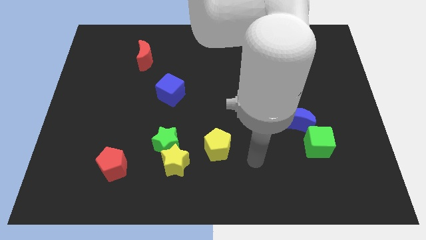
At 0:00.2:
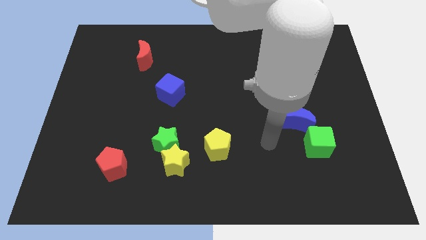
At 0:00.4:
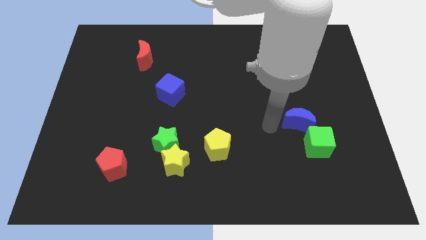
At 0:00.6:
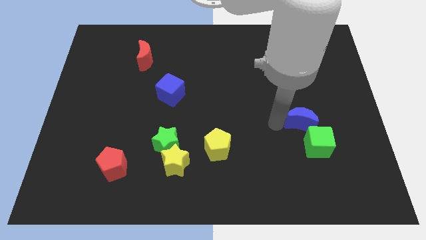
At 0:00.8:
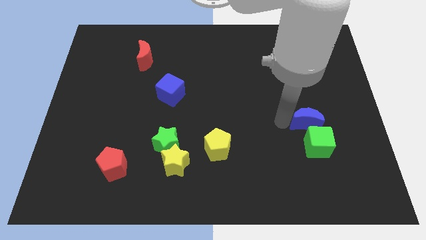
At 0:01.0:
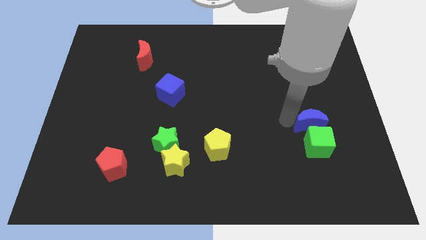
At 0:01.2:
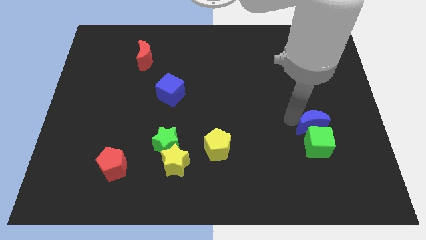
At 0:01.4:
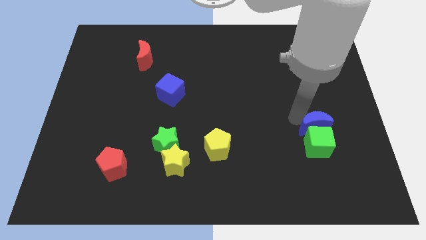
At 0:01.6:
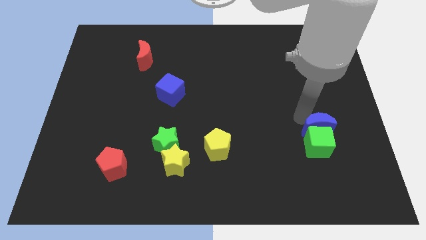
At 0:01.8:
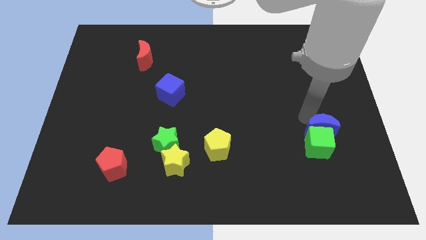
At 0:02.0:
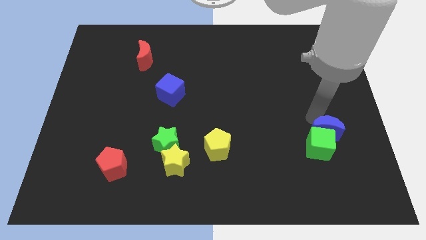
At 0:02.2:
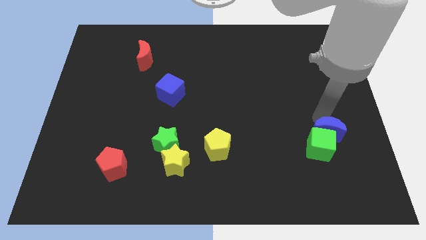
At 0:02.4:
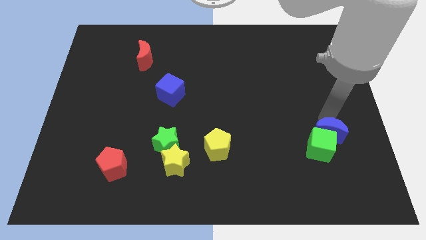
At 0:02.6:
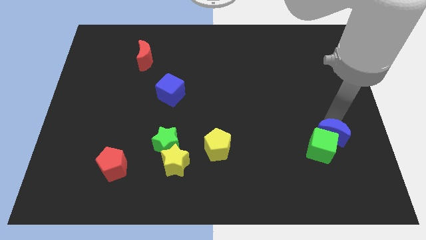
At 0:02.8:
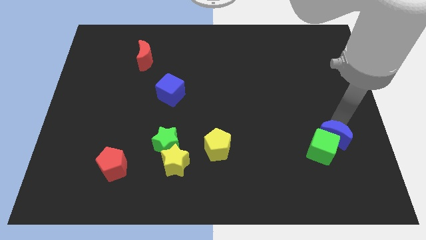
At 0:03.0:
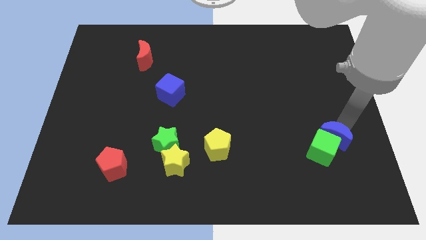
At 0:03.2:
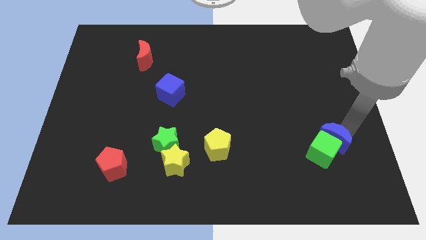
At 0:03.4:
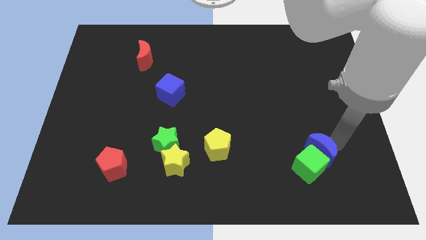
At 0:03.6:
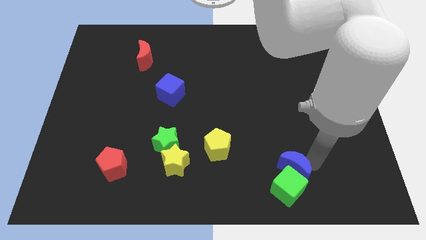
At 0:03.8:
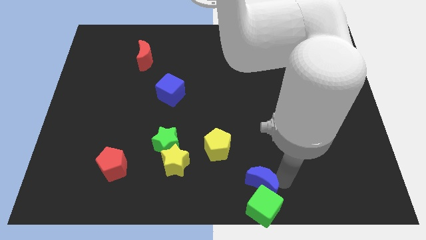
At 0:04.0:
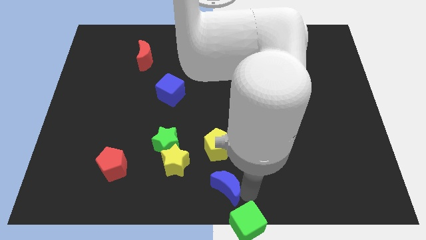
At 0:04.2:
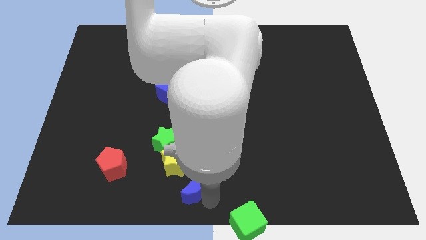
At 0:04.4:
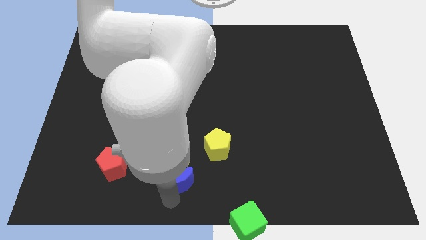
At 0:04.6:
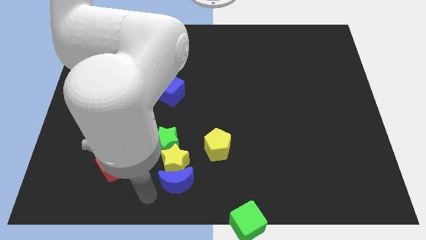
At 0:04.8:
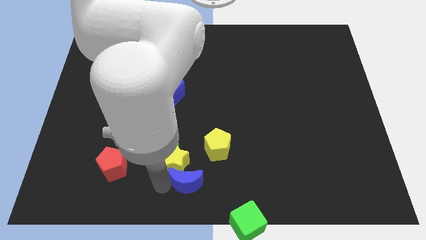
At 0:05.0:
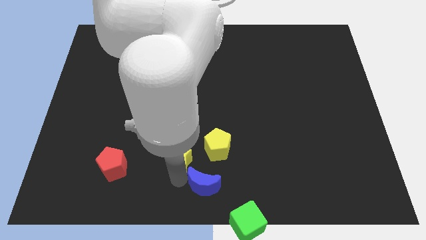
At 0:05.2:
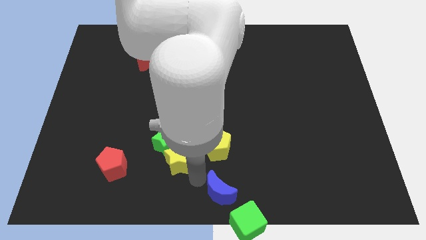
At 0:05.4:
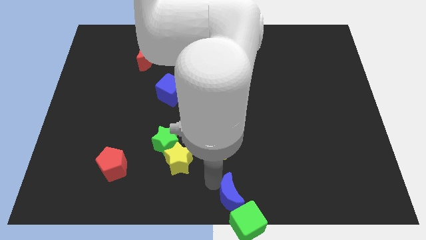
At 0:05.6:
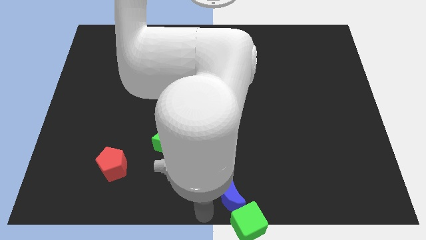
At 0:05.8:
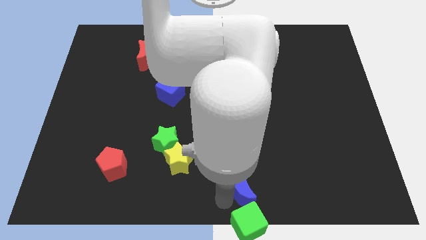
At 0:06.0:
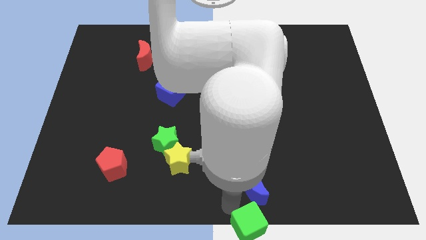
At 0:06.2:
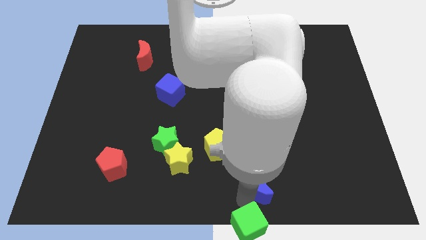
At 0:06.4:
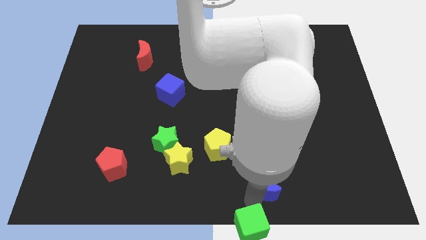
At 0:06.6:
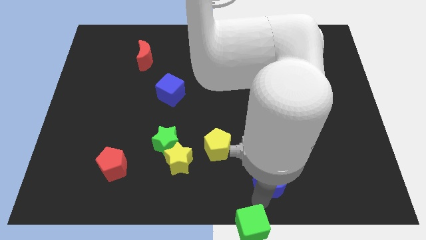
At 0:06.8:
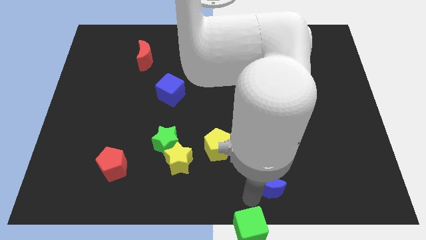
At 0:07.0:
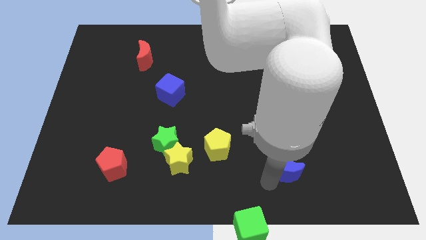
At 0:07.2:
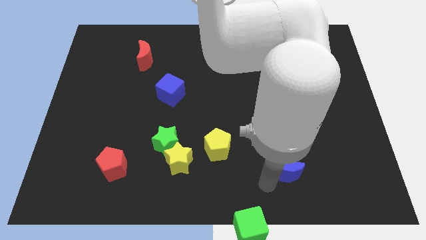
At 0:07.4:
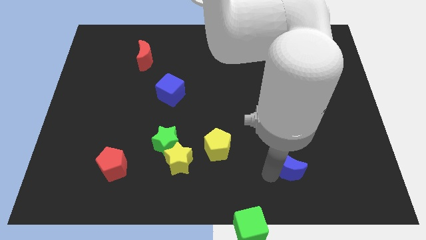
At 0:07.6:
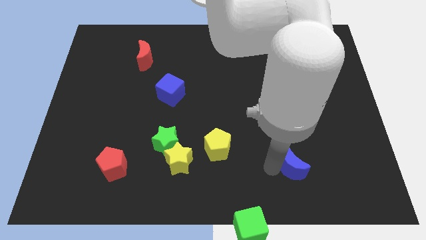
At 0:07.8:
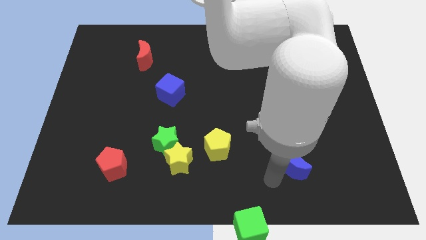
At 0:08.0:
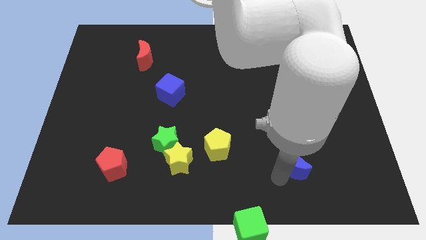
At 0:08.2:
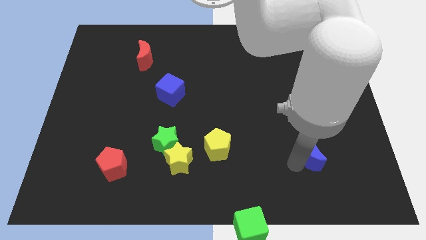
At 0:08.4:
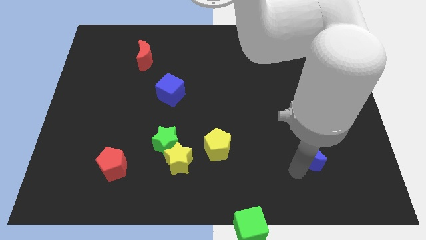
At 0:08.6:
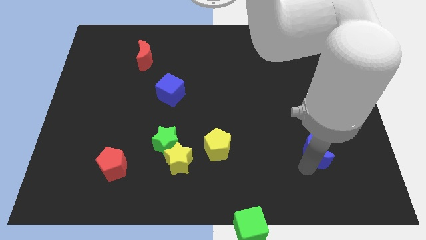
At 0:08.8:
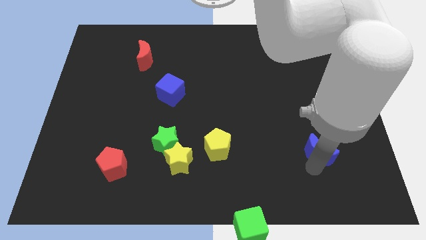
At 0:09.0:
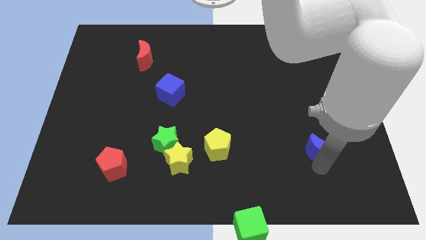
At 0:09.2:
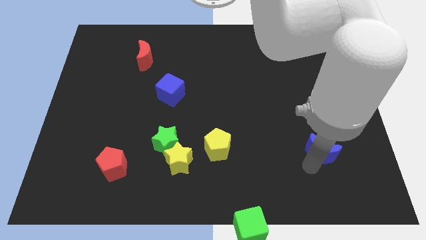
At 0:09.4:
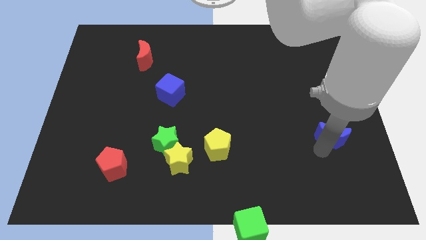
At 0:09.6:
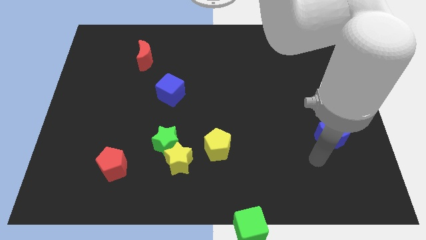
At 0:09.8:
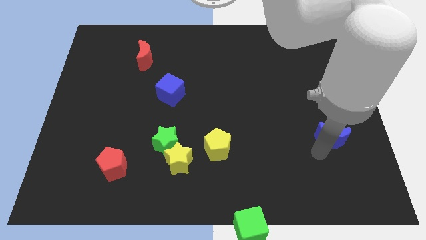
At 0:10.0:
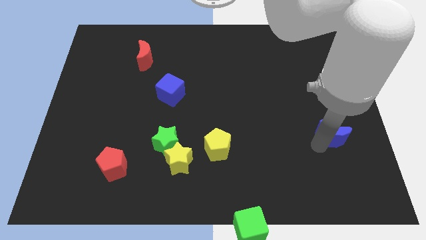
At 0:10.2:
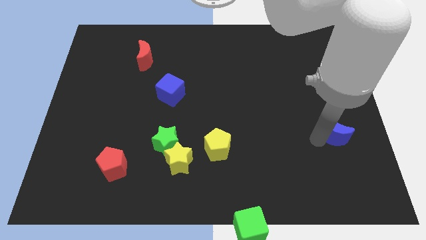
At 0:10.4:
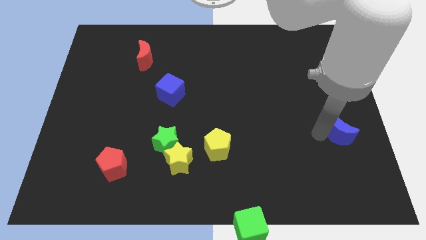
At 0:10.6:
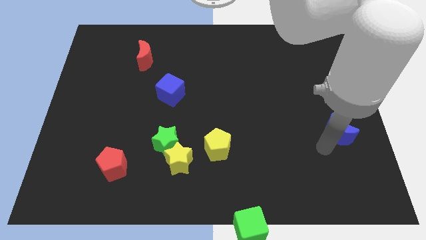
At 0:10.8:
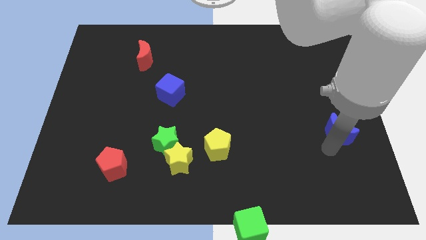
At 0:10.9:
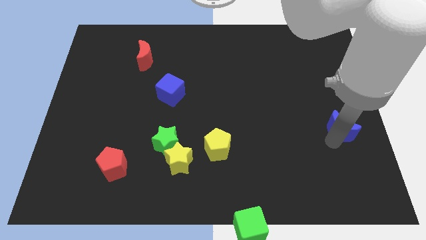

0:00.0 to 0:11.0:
slide the blue moon to the center right

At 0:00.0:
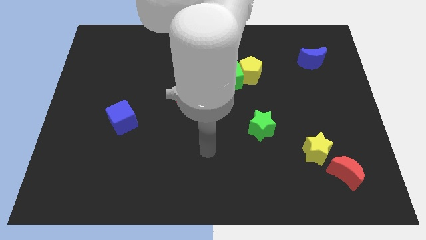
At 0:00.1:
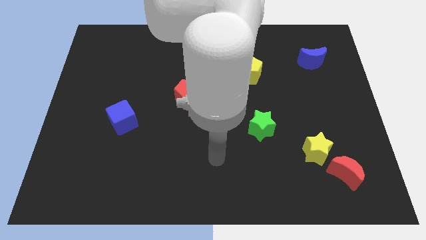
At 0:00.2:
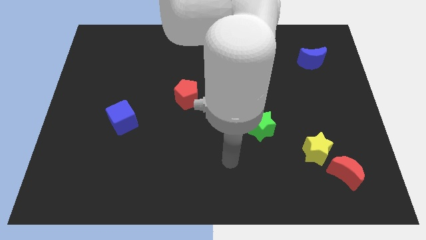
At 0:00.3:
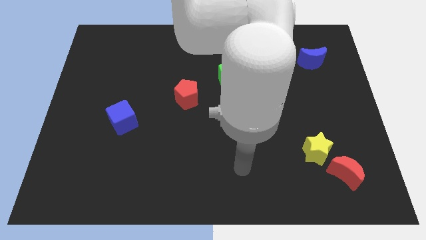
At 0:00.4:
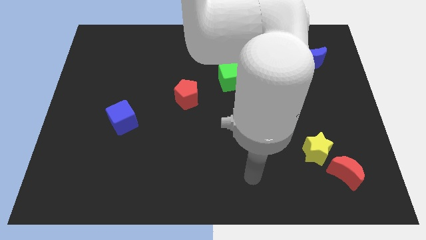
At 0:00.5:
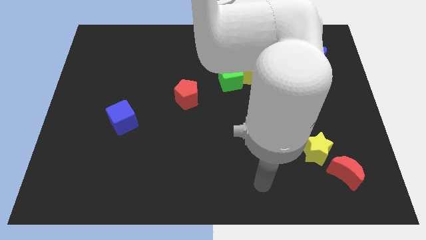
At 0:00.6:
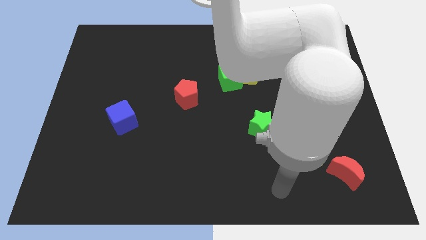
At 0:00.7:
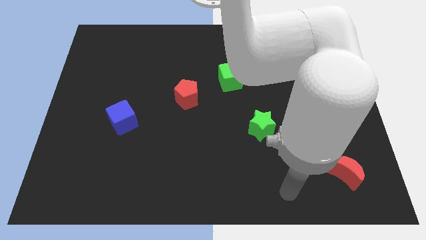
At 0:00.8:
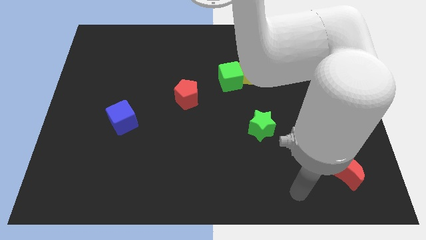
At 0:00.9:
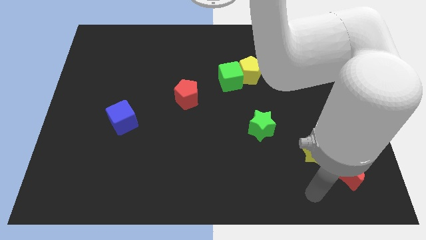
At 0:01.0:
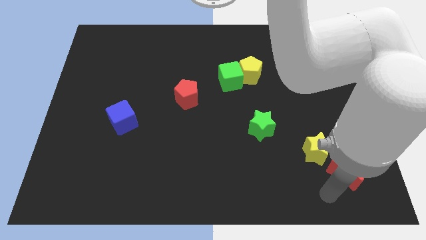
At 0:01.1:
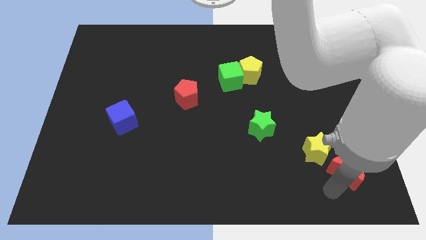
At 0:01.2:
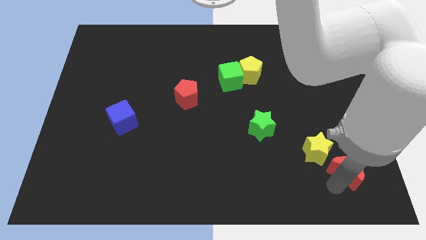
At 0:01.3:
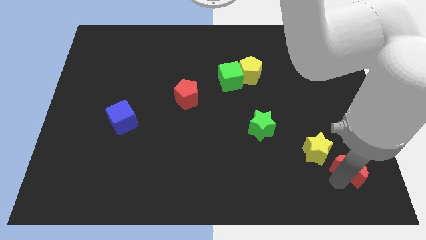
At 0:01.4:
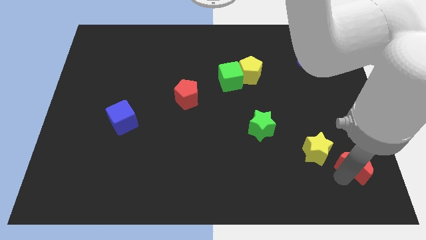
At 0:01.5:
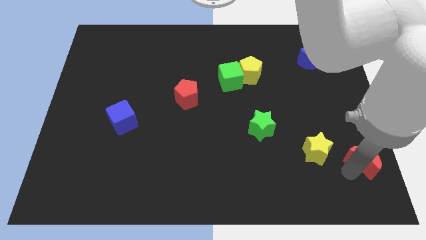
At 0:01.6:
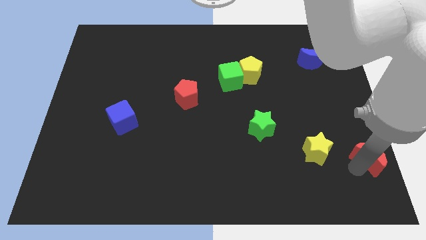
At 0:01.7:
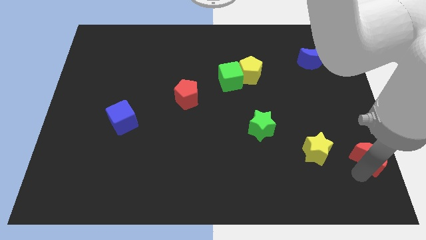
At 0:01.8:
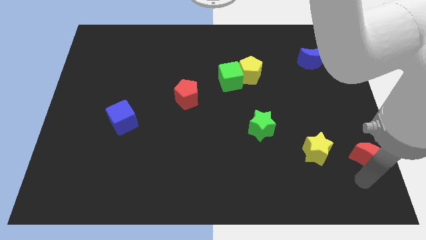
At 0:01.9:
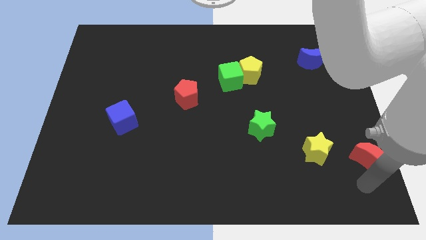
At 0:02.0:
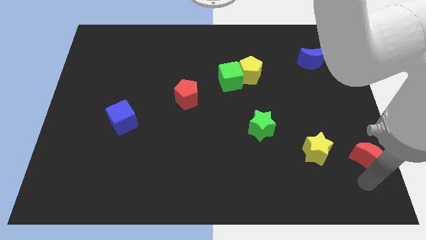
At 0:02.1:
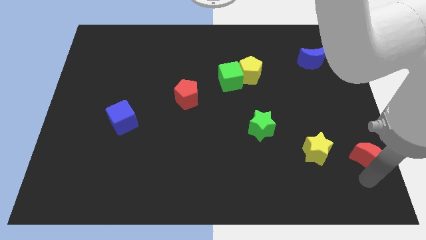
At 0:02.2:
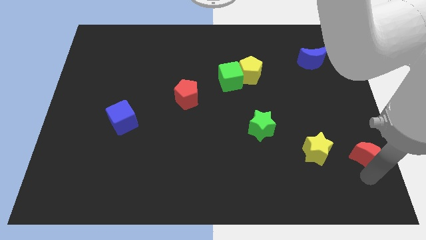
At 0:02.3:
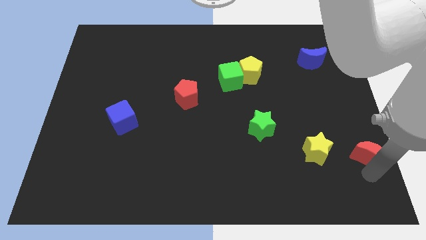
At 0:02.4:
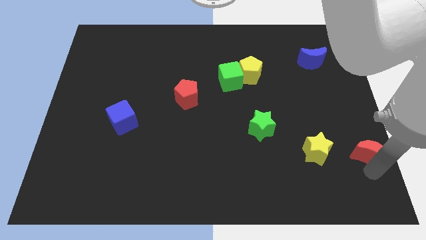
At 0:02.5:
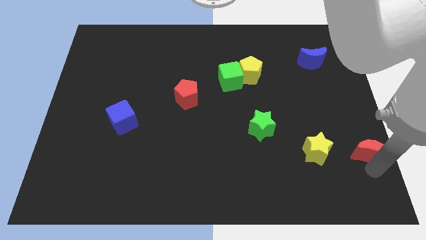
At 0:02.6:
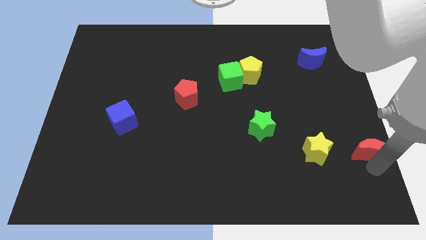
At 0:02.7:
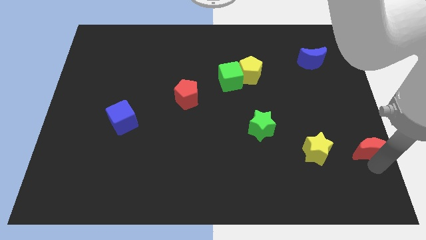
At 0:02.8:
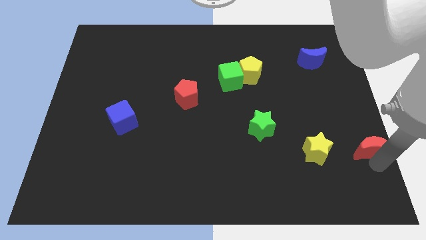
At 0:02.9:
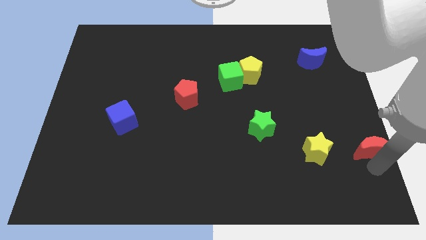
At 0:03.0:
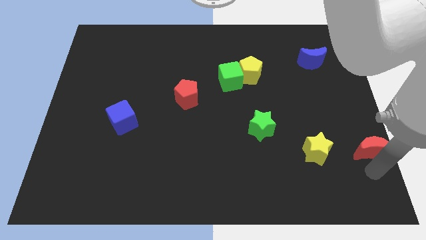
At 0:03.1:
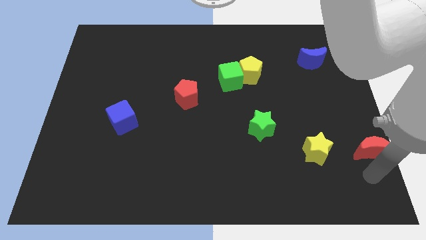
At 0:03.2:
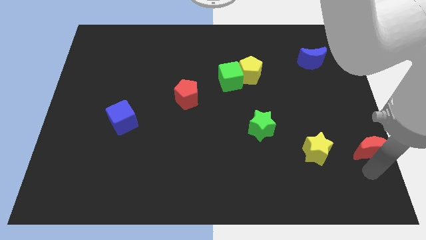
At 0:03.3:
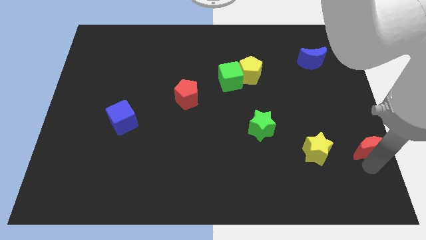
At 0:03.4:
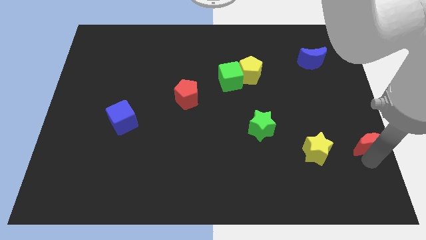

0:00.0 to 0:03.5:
move the red moon to the right side
